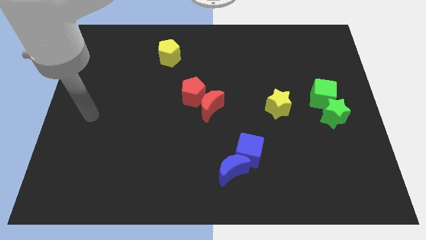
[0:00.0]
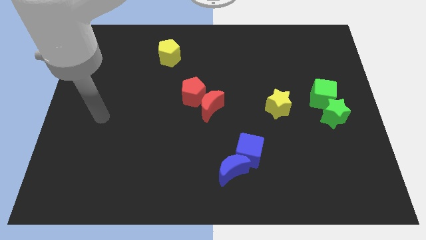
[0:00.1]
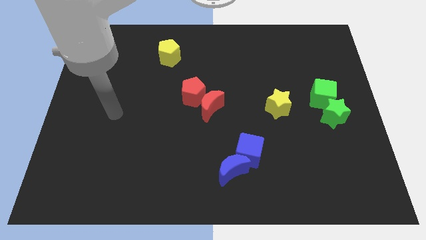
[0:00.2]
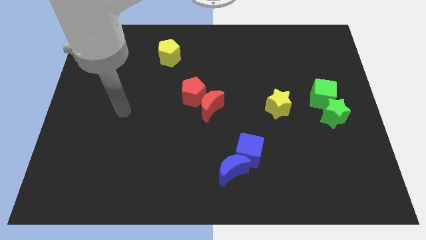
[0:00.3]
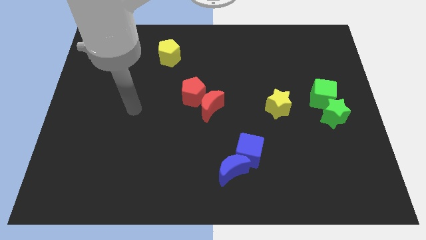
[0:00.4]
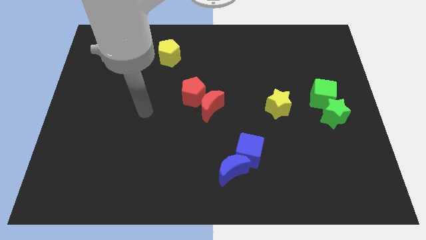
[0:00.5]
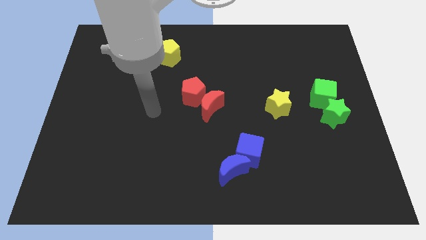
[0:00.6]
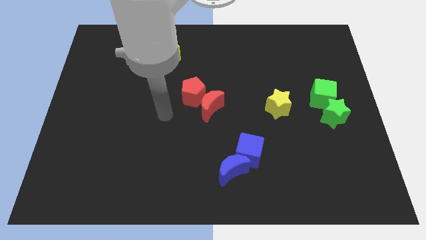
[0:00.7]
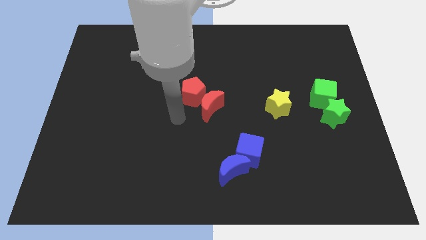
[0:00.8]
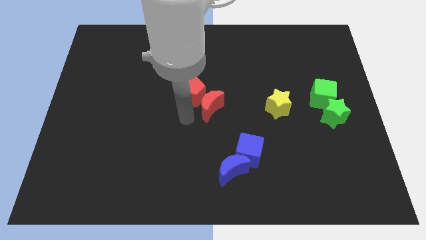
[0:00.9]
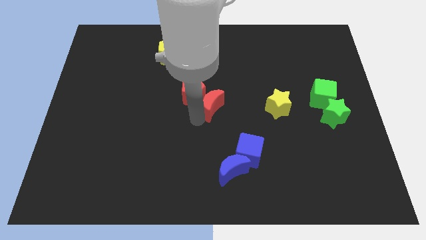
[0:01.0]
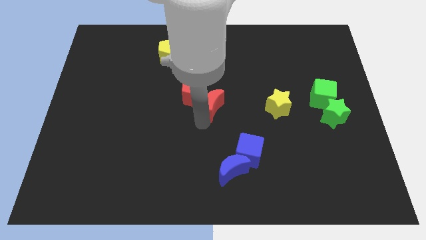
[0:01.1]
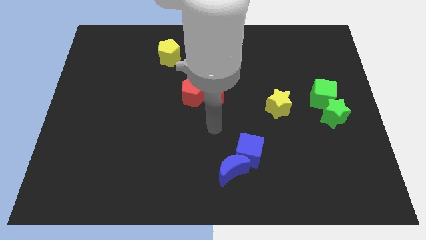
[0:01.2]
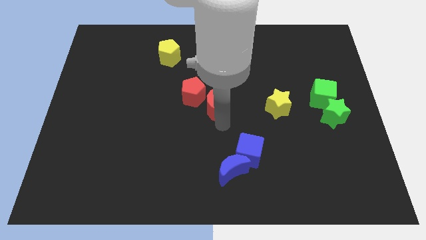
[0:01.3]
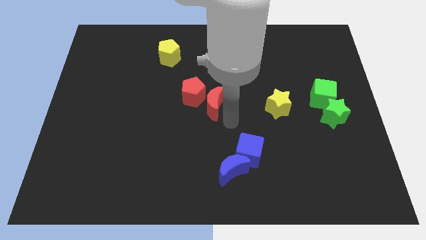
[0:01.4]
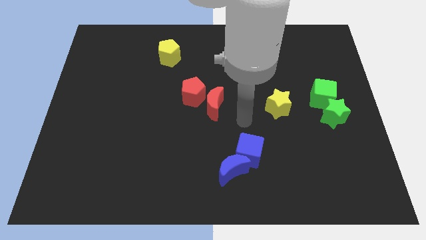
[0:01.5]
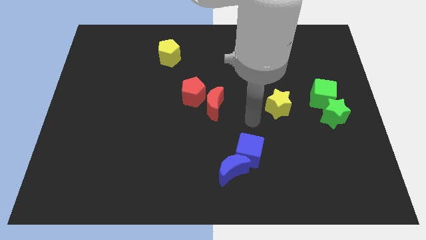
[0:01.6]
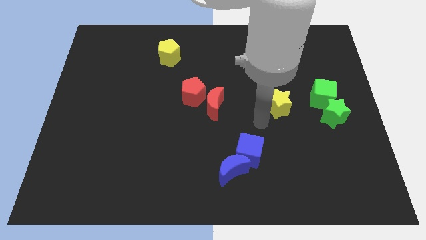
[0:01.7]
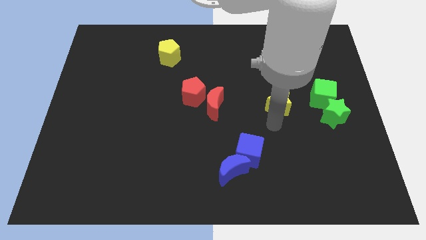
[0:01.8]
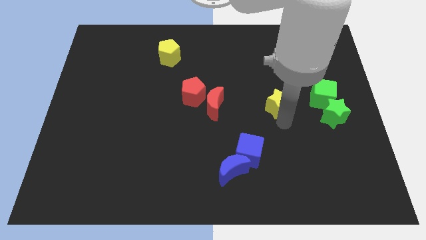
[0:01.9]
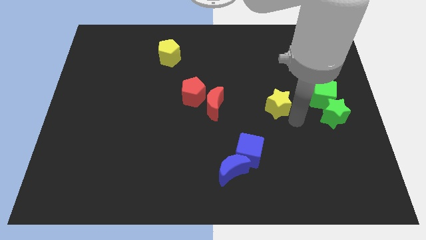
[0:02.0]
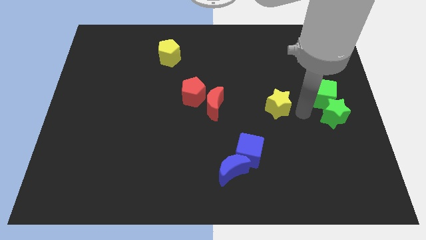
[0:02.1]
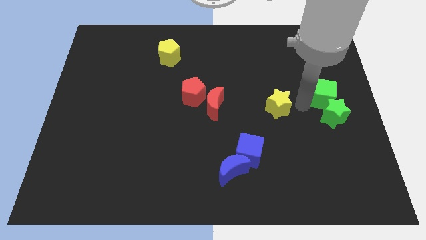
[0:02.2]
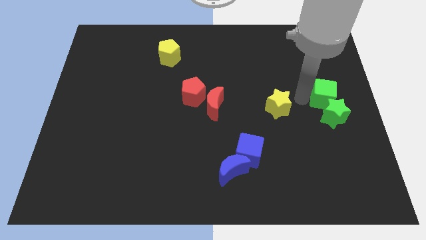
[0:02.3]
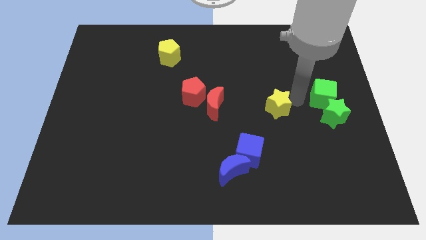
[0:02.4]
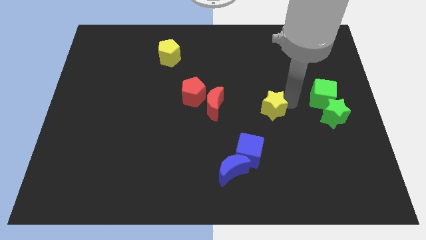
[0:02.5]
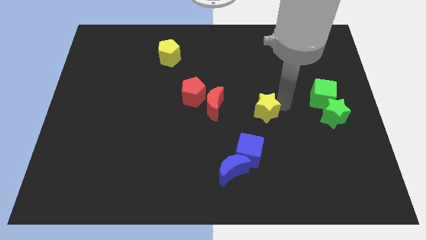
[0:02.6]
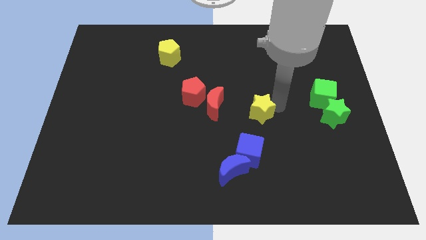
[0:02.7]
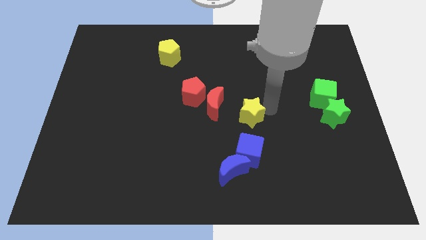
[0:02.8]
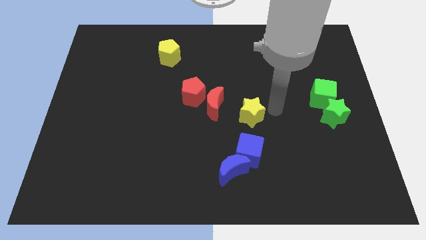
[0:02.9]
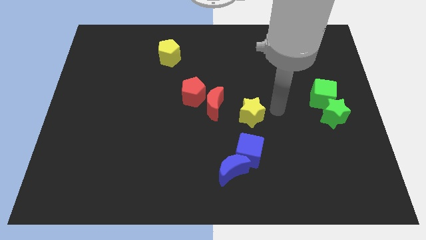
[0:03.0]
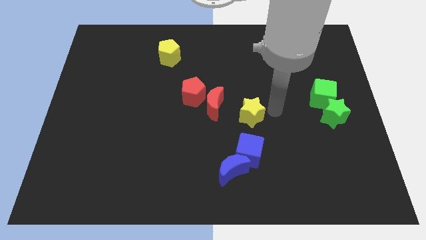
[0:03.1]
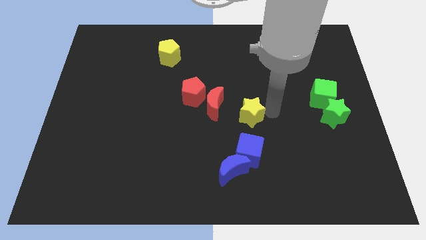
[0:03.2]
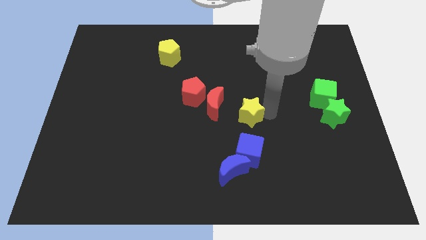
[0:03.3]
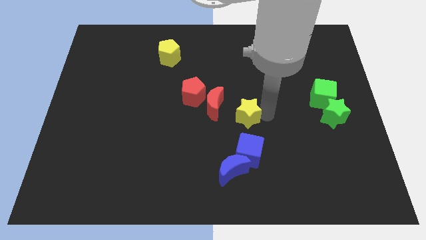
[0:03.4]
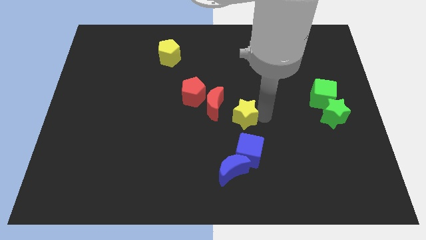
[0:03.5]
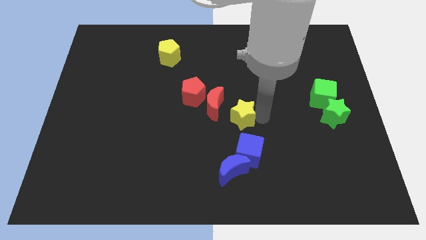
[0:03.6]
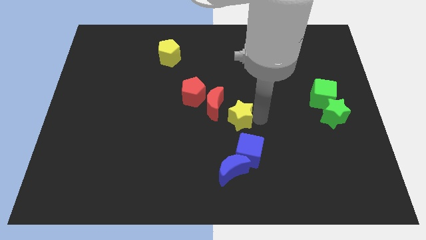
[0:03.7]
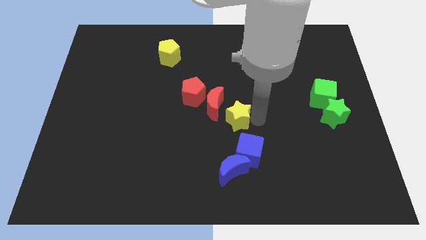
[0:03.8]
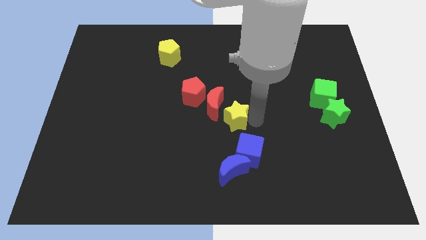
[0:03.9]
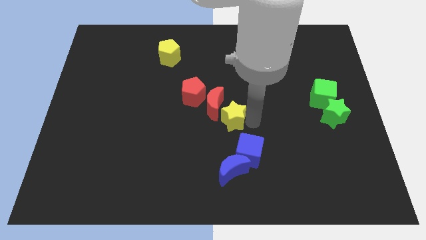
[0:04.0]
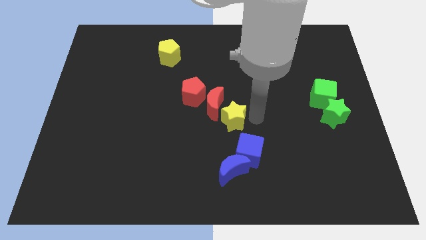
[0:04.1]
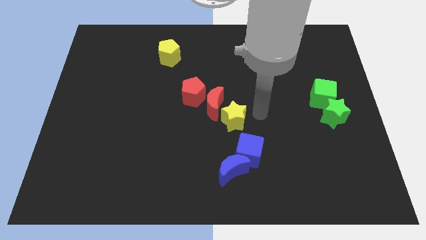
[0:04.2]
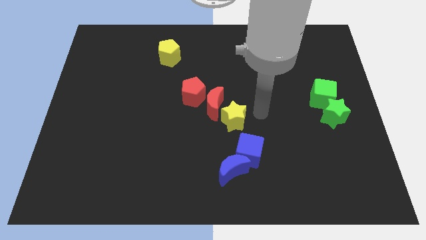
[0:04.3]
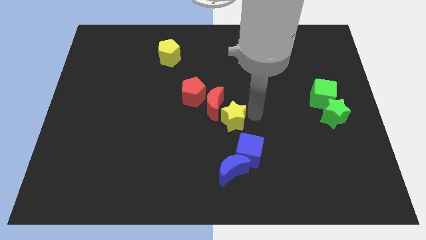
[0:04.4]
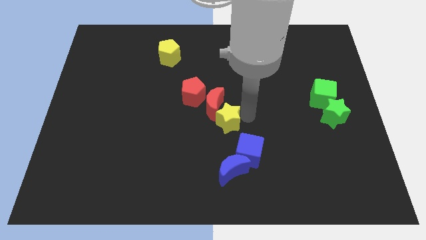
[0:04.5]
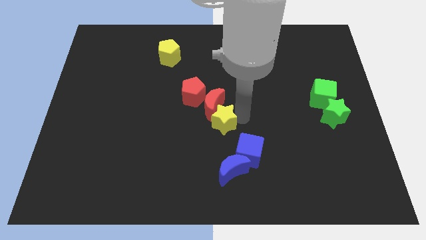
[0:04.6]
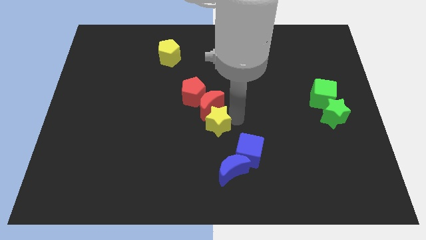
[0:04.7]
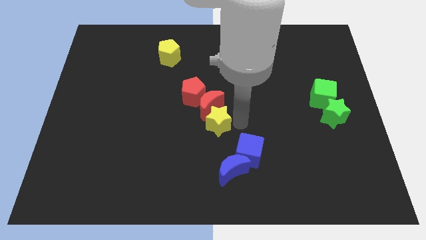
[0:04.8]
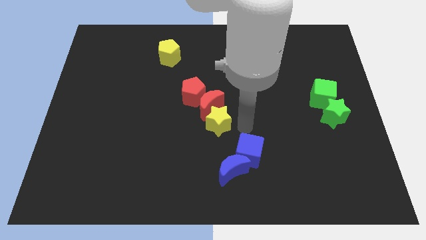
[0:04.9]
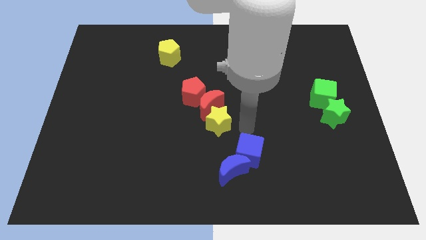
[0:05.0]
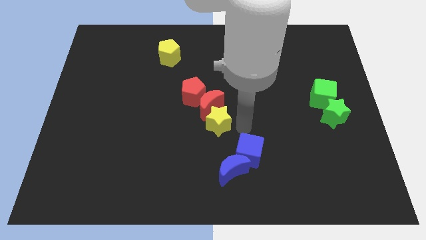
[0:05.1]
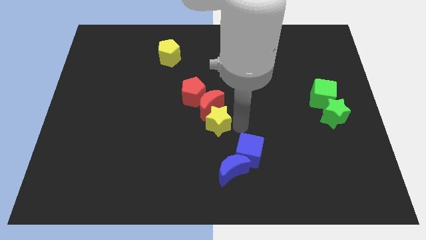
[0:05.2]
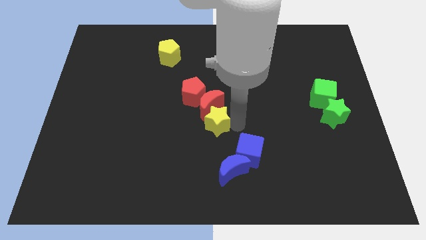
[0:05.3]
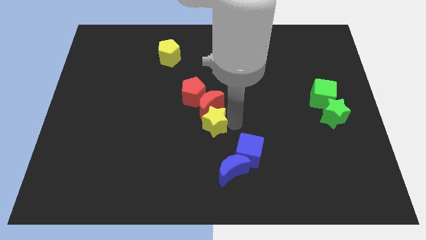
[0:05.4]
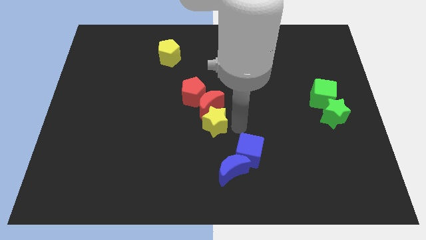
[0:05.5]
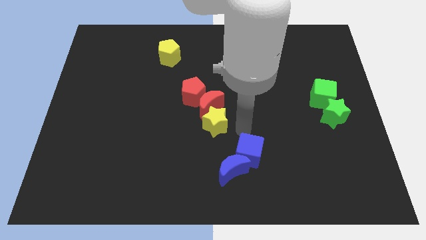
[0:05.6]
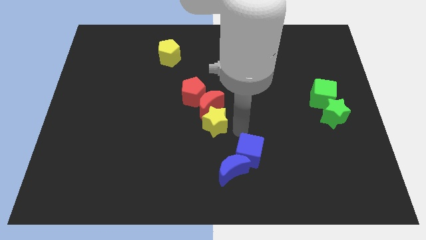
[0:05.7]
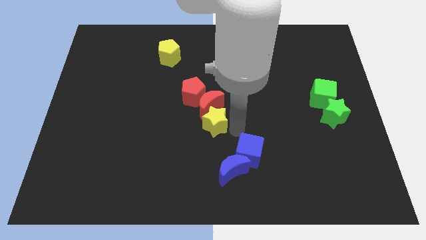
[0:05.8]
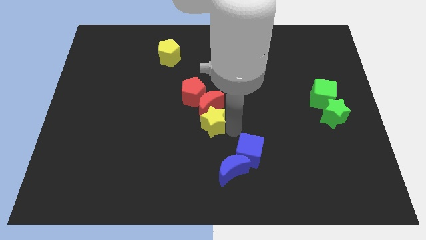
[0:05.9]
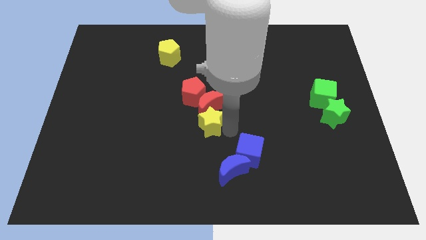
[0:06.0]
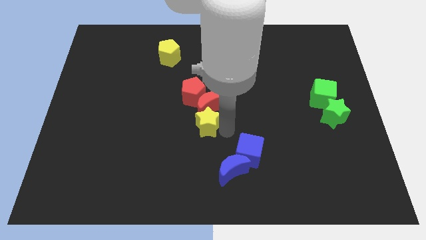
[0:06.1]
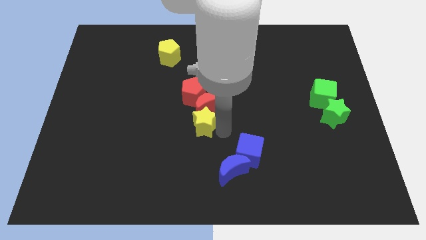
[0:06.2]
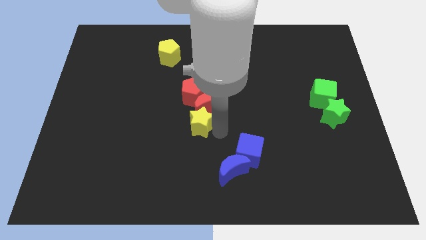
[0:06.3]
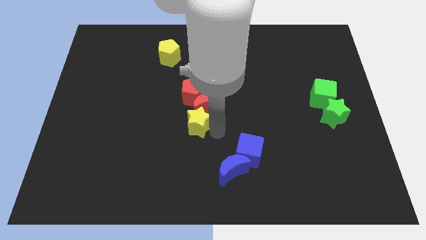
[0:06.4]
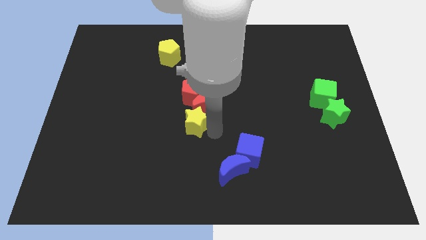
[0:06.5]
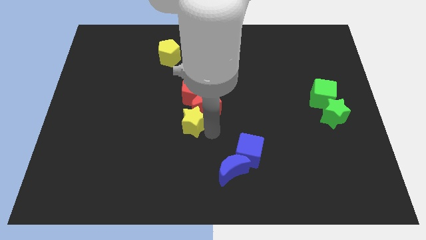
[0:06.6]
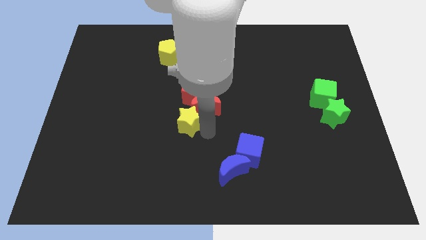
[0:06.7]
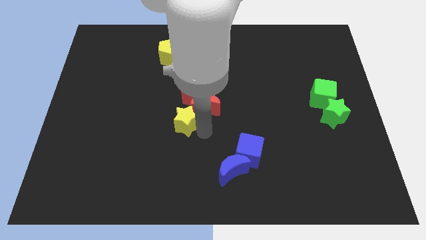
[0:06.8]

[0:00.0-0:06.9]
move the yellow star to the left

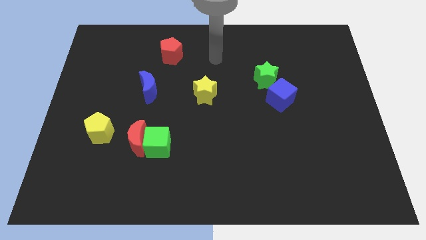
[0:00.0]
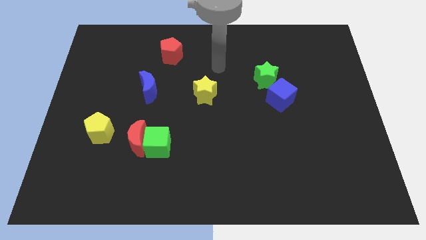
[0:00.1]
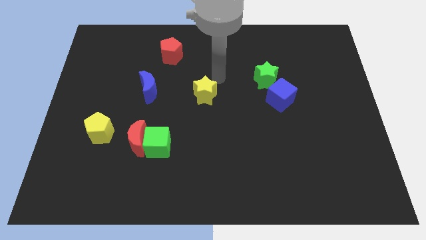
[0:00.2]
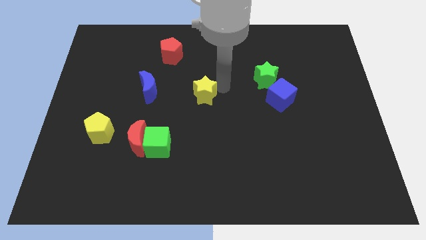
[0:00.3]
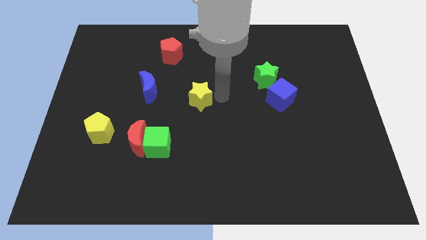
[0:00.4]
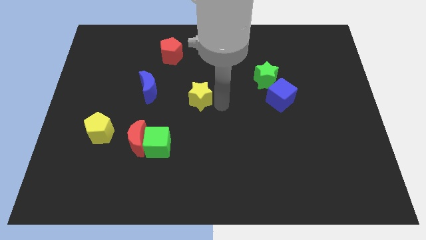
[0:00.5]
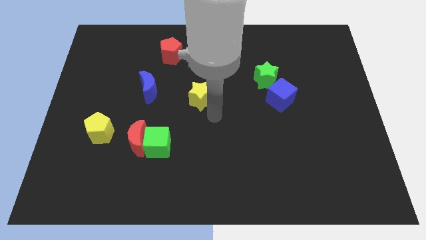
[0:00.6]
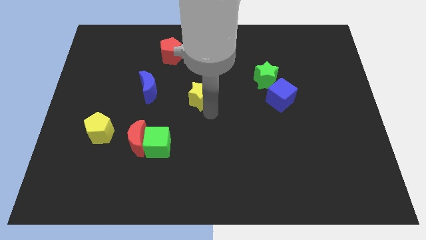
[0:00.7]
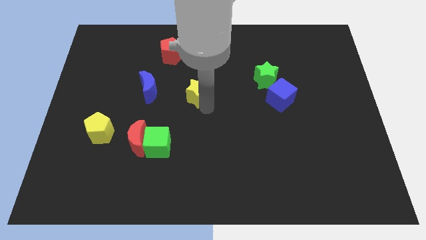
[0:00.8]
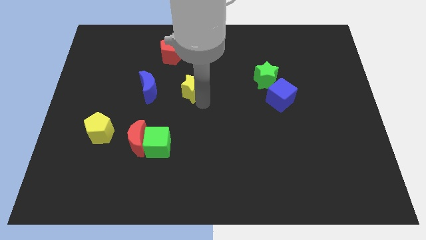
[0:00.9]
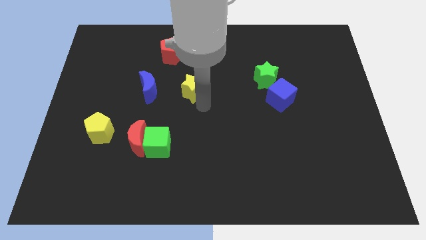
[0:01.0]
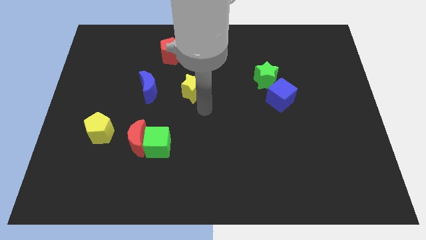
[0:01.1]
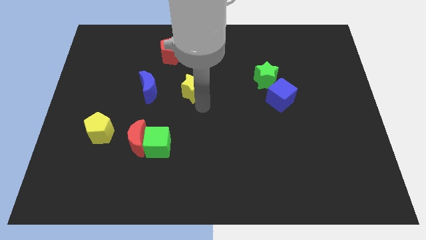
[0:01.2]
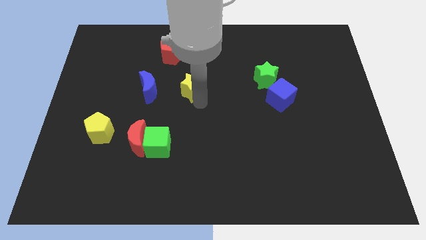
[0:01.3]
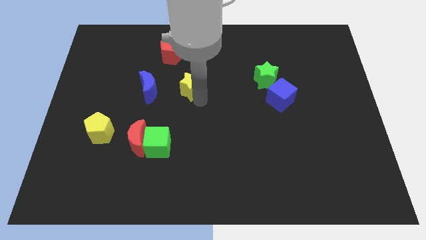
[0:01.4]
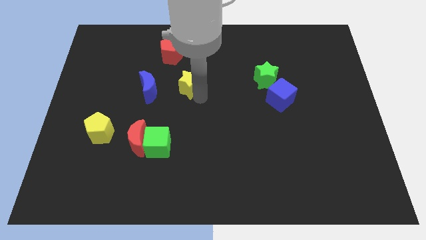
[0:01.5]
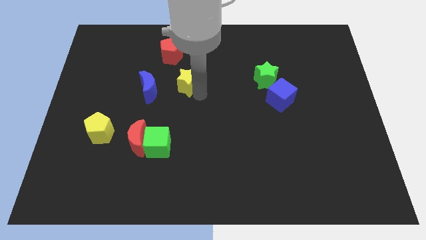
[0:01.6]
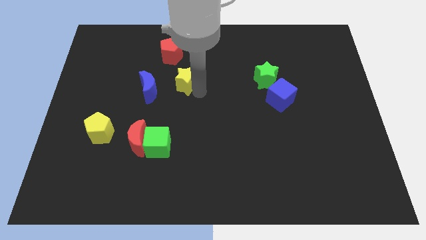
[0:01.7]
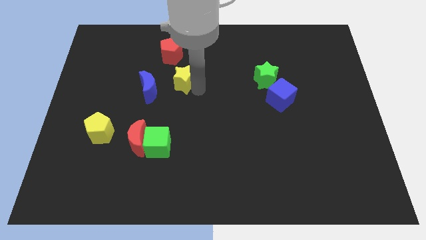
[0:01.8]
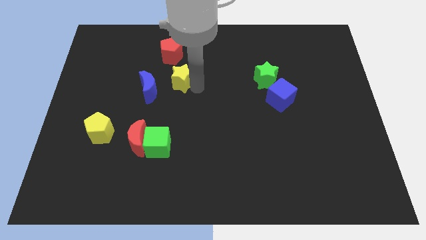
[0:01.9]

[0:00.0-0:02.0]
slide the yellow star a little bit up and left diagonally
